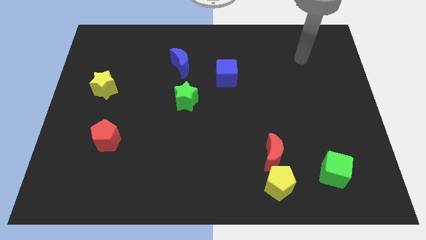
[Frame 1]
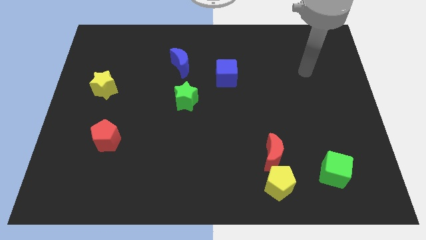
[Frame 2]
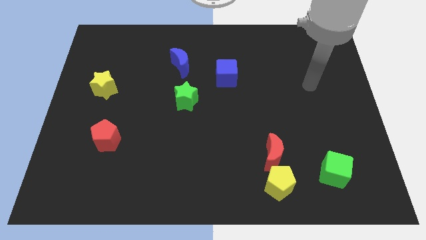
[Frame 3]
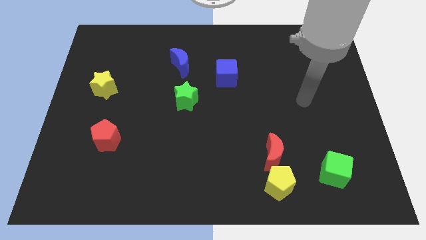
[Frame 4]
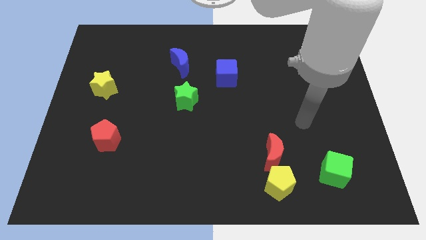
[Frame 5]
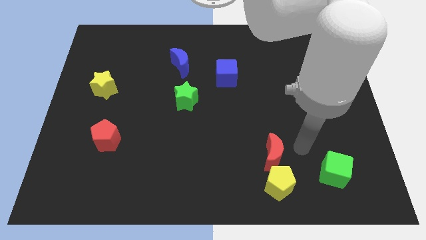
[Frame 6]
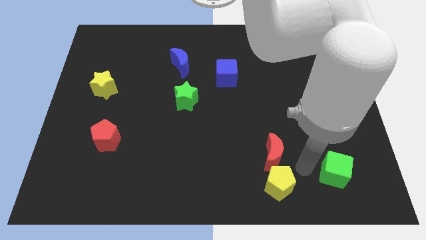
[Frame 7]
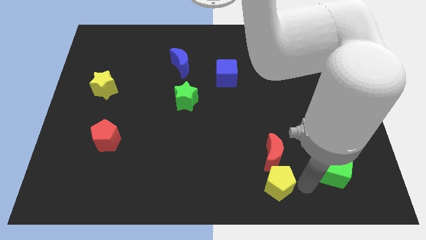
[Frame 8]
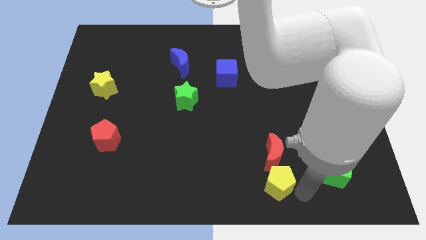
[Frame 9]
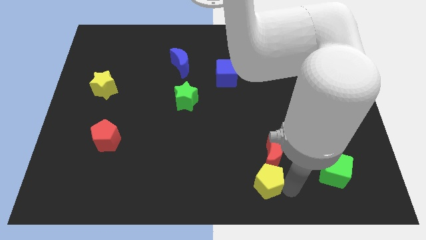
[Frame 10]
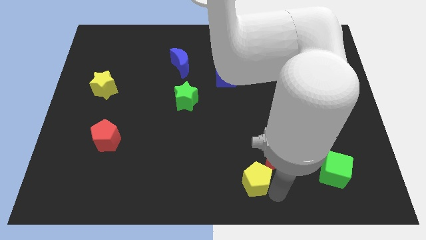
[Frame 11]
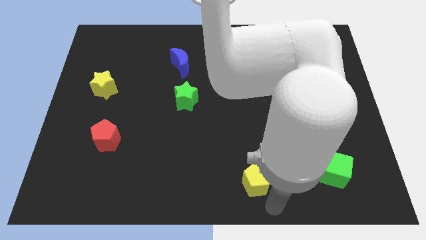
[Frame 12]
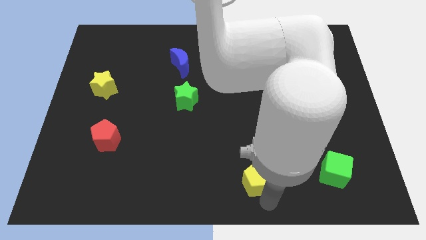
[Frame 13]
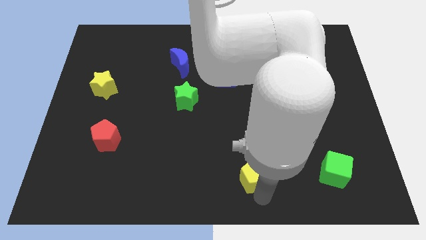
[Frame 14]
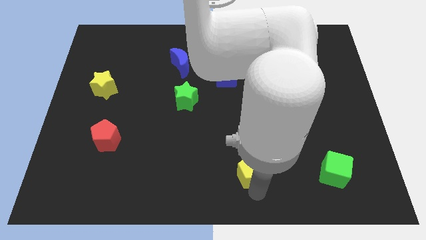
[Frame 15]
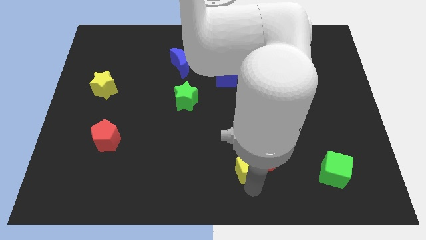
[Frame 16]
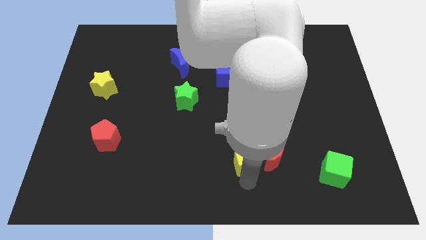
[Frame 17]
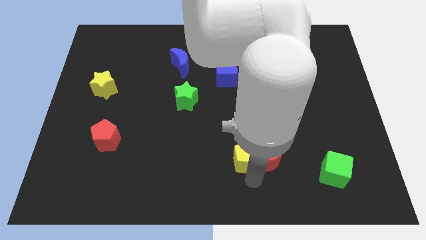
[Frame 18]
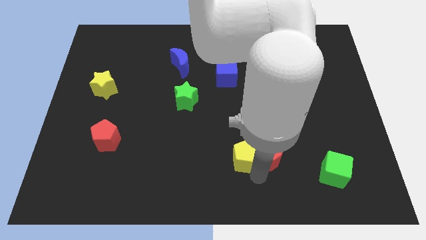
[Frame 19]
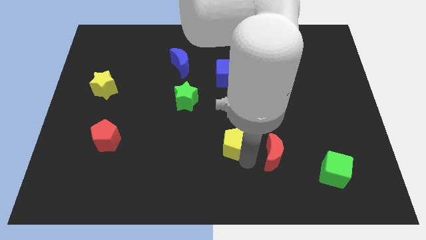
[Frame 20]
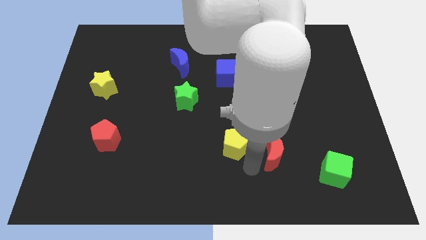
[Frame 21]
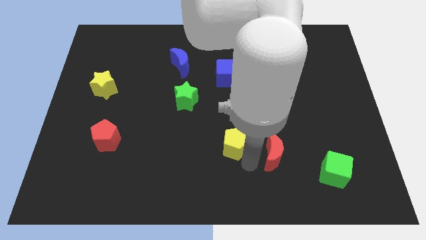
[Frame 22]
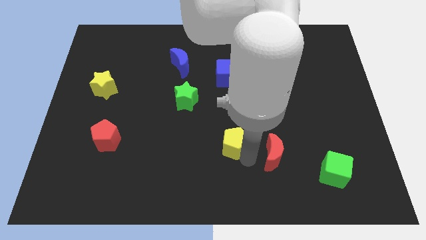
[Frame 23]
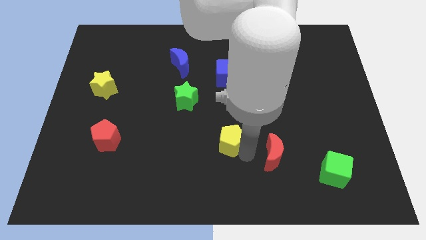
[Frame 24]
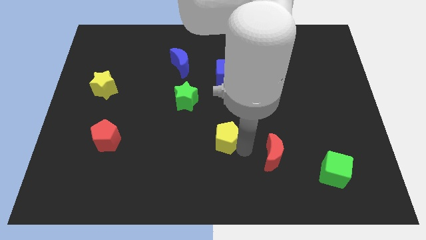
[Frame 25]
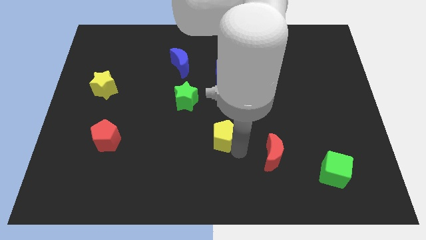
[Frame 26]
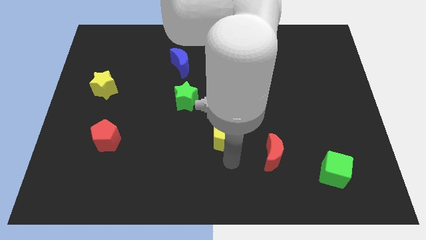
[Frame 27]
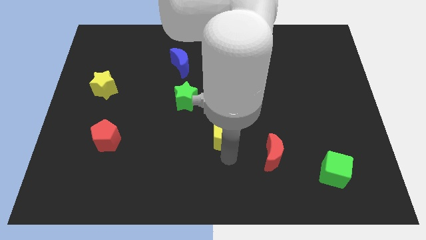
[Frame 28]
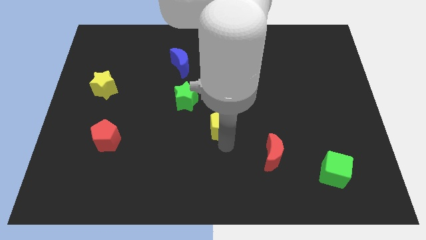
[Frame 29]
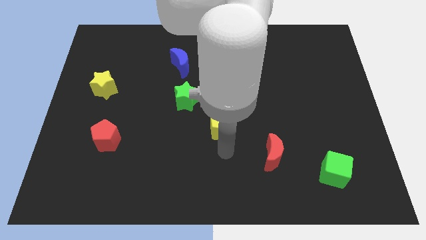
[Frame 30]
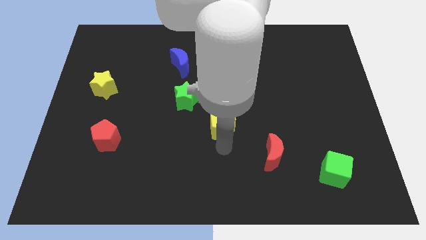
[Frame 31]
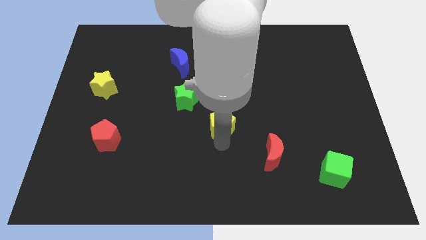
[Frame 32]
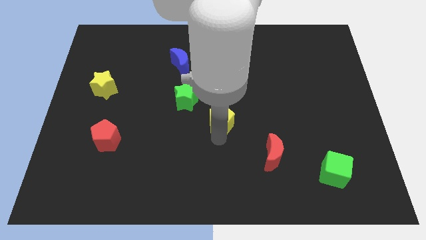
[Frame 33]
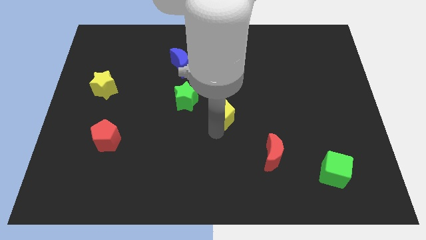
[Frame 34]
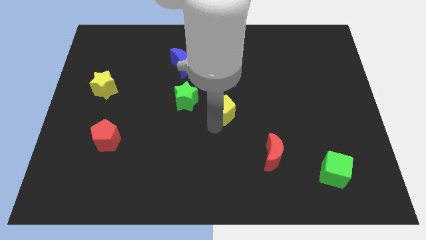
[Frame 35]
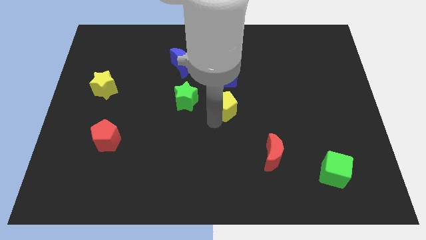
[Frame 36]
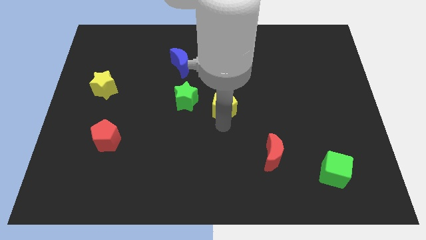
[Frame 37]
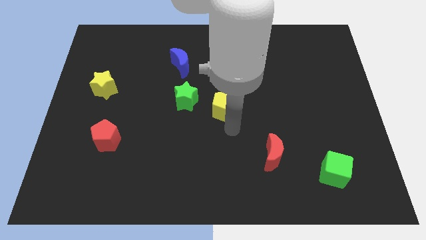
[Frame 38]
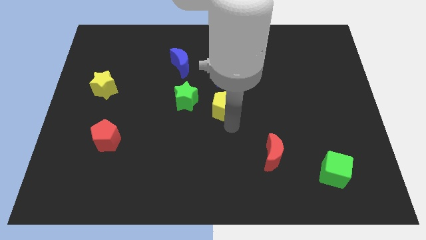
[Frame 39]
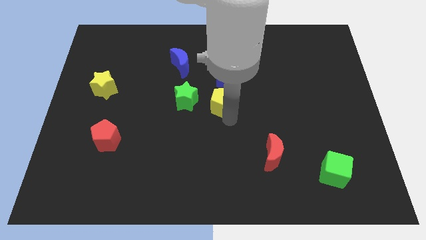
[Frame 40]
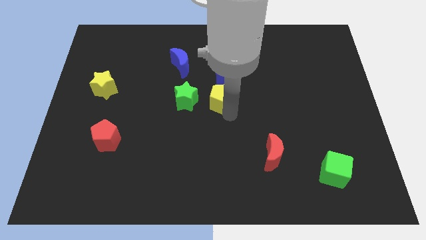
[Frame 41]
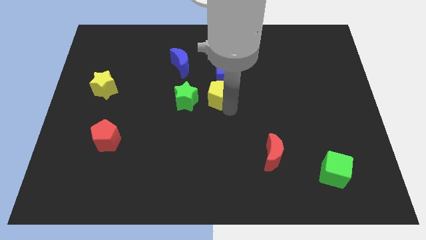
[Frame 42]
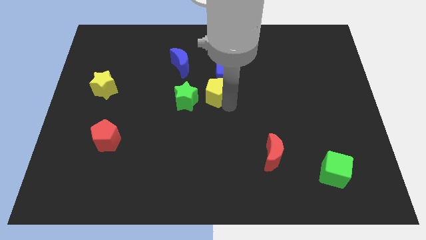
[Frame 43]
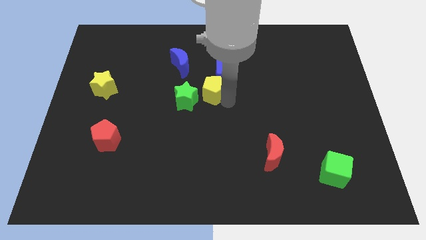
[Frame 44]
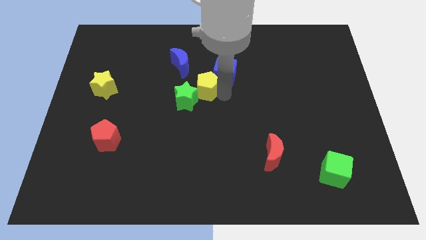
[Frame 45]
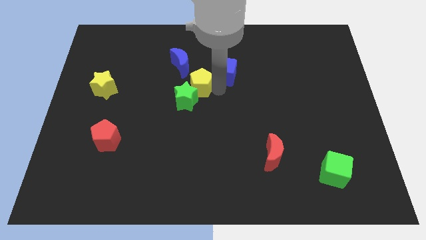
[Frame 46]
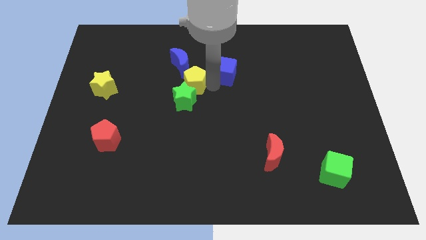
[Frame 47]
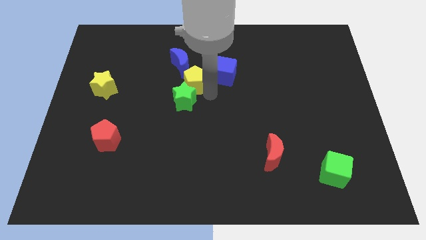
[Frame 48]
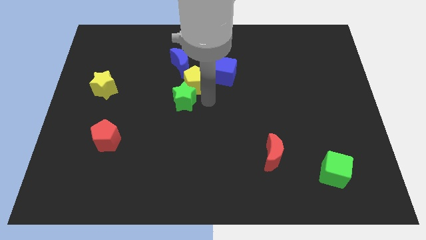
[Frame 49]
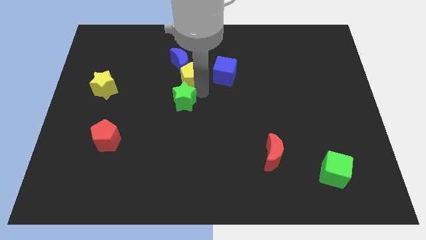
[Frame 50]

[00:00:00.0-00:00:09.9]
push the yellow pentagon next to the blue moon

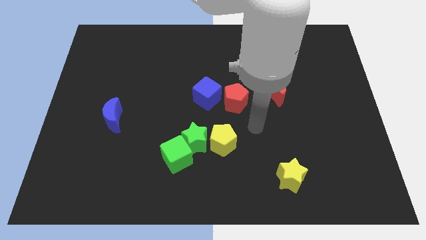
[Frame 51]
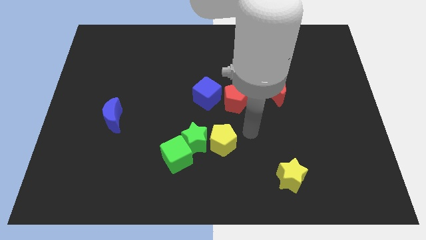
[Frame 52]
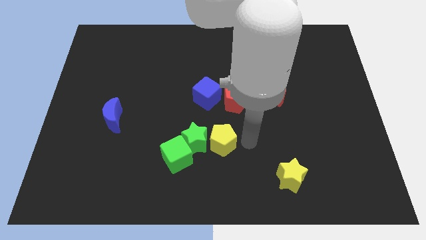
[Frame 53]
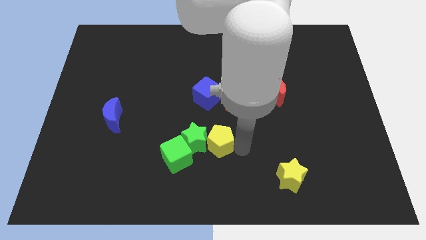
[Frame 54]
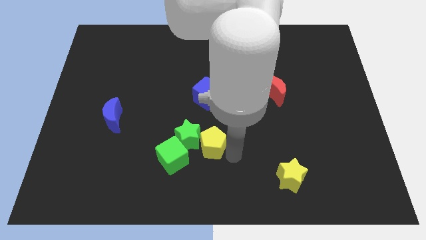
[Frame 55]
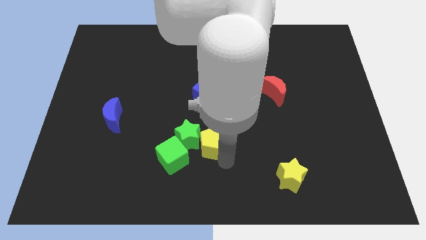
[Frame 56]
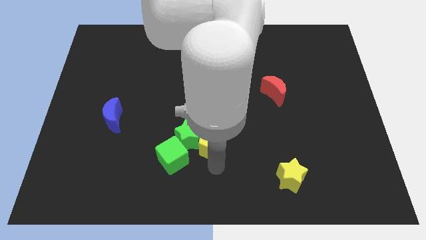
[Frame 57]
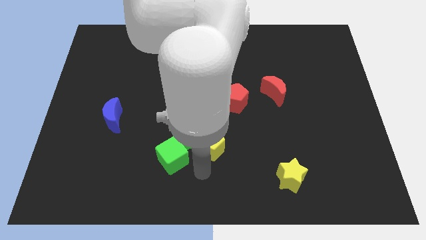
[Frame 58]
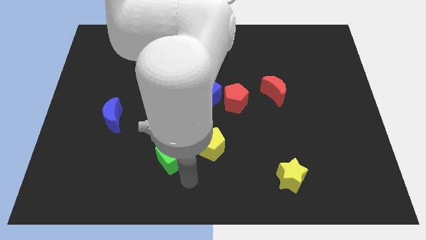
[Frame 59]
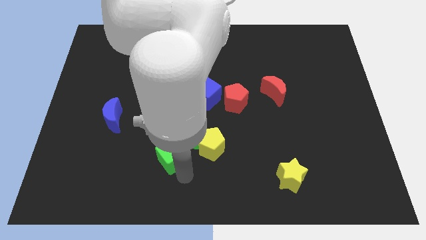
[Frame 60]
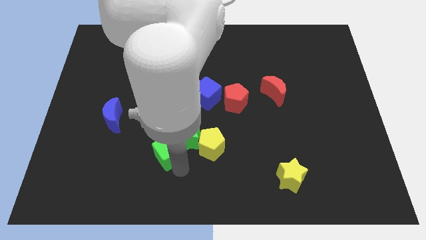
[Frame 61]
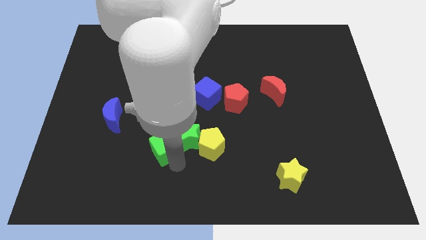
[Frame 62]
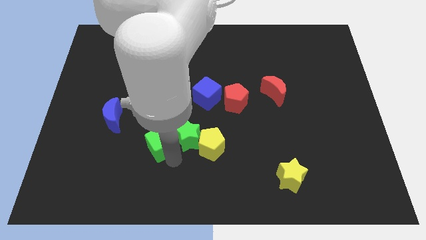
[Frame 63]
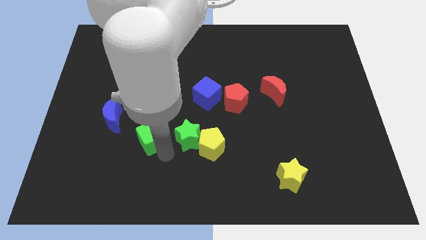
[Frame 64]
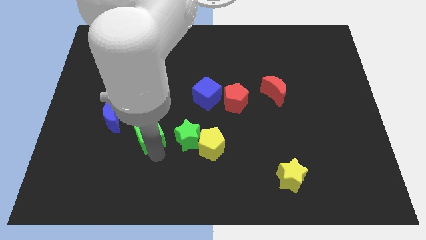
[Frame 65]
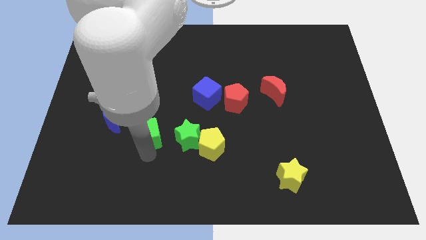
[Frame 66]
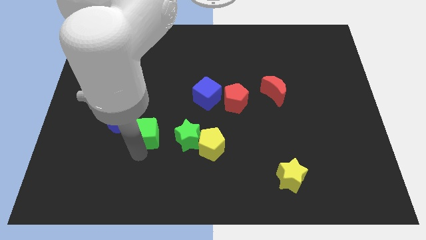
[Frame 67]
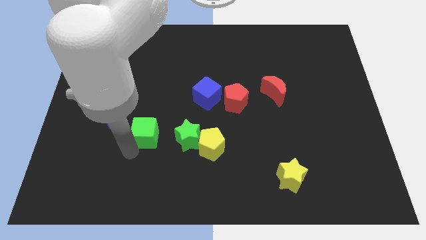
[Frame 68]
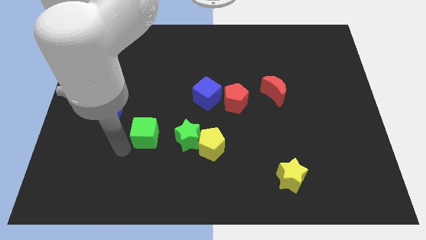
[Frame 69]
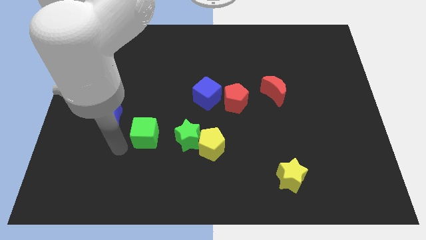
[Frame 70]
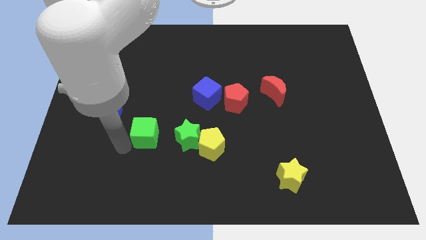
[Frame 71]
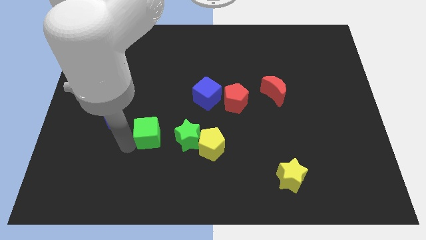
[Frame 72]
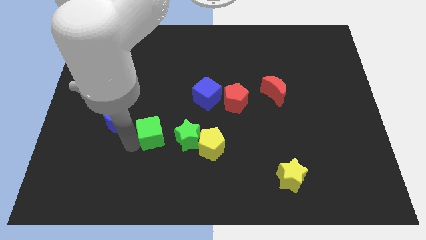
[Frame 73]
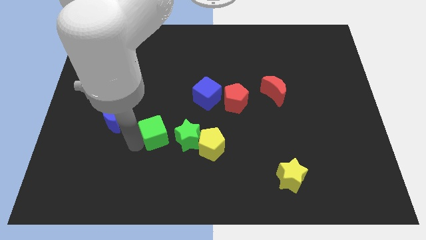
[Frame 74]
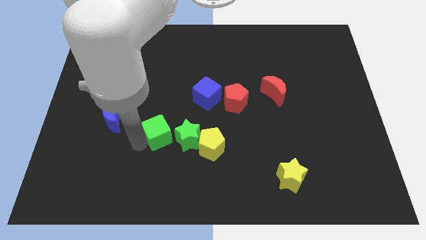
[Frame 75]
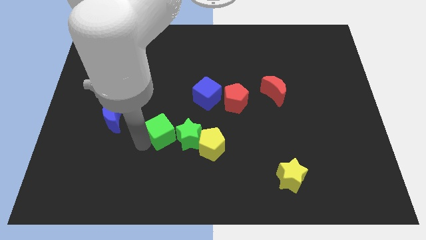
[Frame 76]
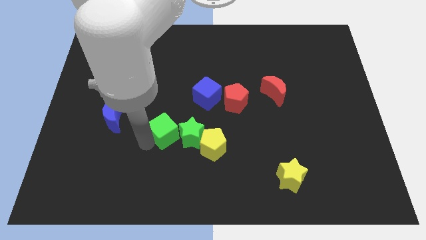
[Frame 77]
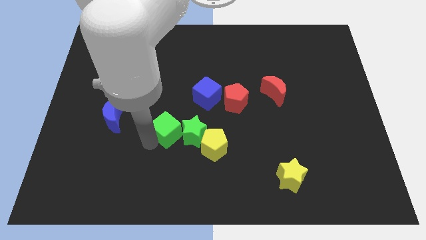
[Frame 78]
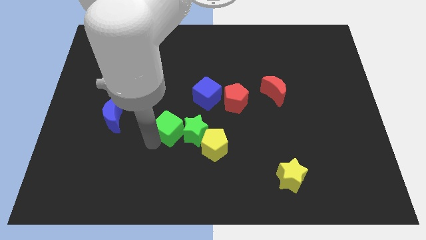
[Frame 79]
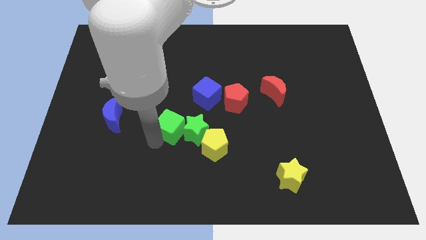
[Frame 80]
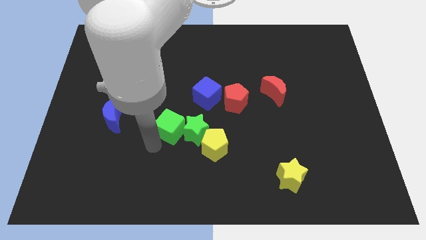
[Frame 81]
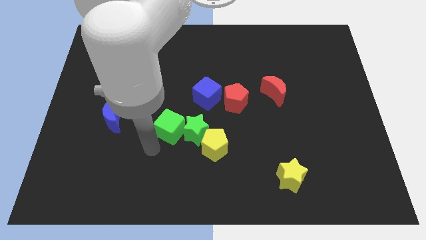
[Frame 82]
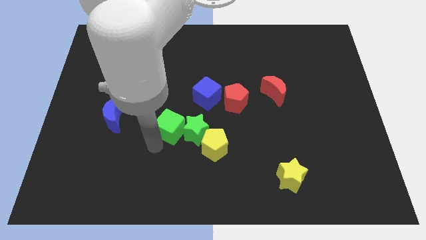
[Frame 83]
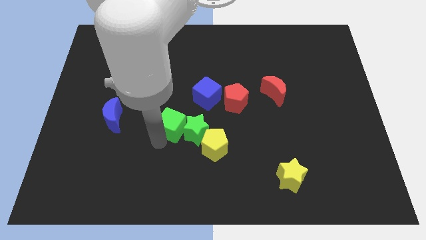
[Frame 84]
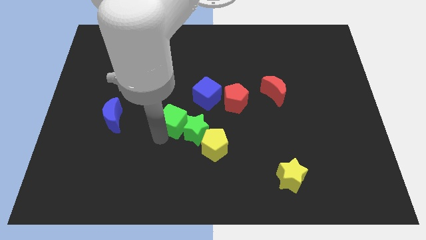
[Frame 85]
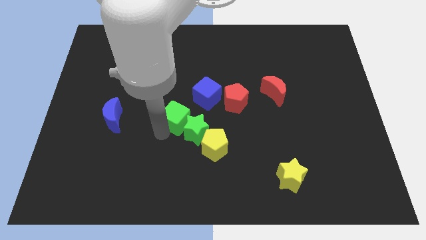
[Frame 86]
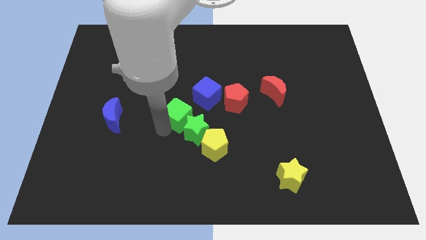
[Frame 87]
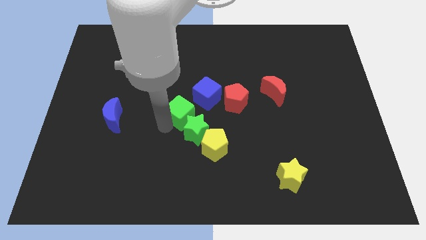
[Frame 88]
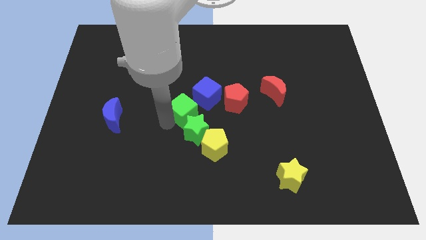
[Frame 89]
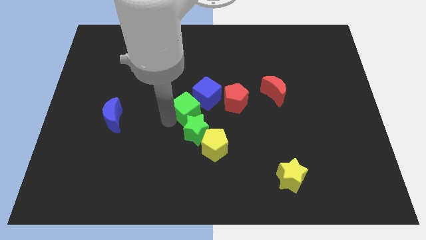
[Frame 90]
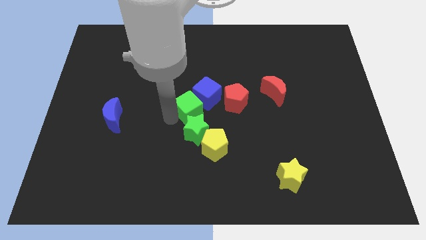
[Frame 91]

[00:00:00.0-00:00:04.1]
push the green cube towards the blue cube
